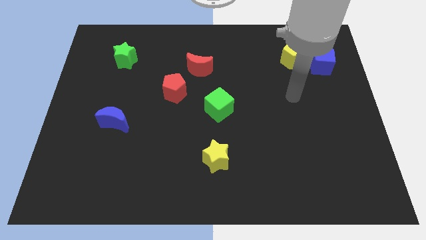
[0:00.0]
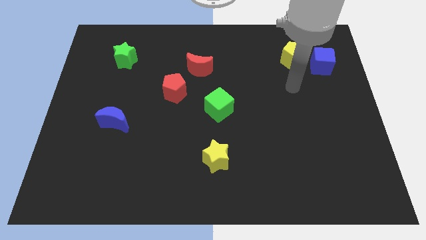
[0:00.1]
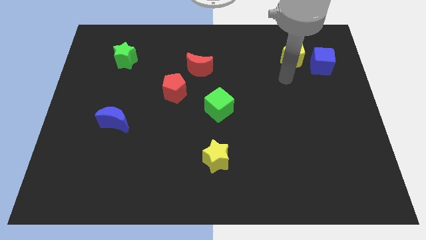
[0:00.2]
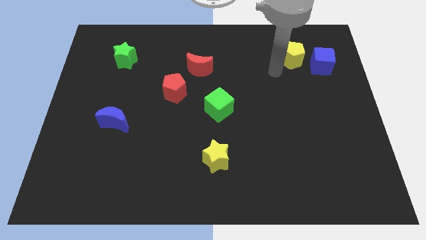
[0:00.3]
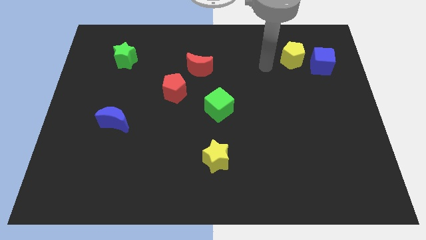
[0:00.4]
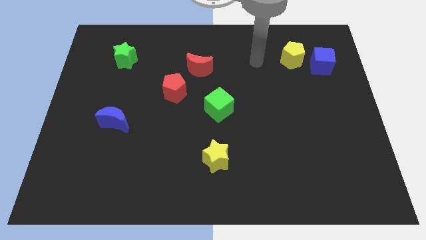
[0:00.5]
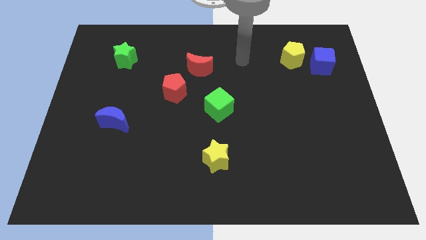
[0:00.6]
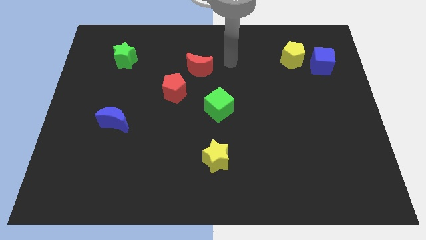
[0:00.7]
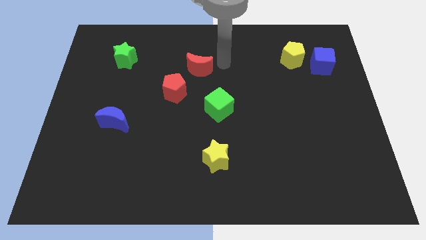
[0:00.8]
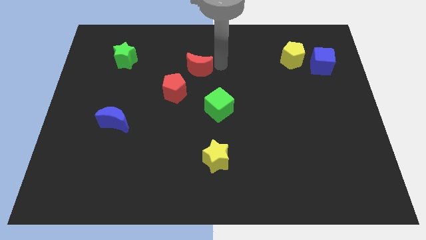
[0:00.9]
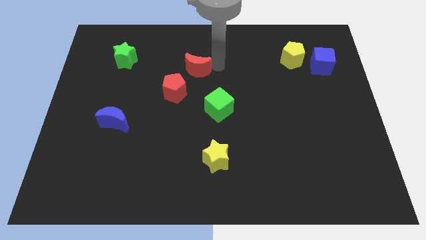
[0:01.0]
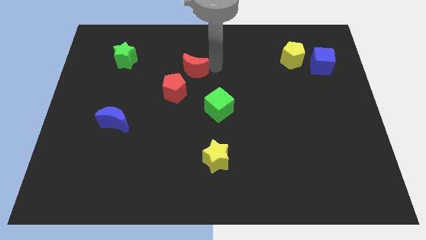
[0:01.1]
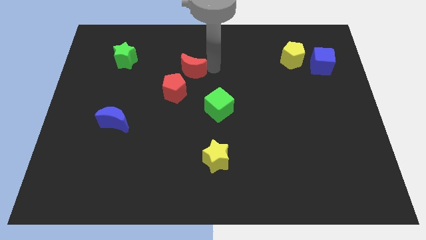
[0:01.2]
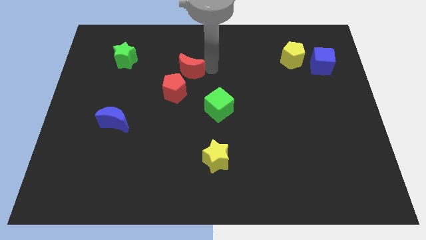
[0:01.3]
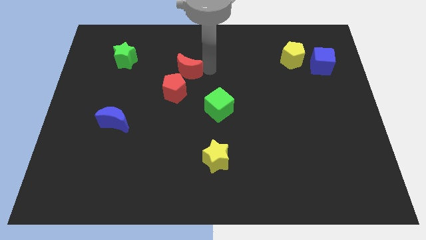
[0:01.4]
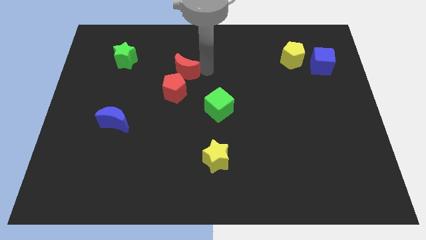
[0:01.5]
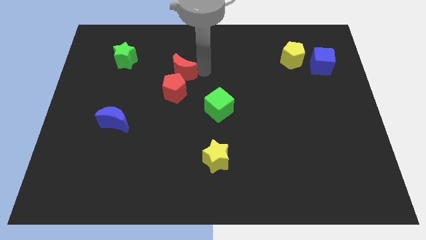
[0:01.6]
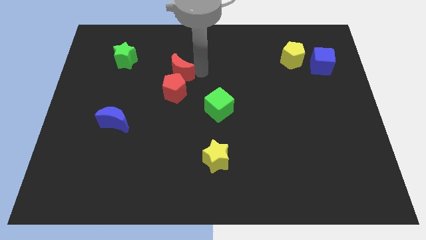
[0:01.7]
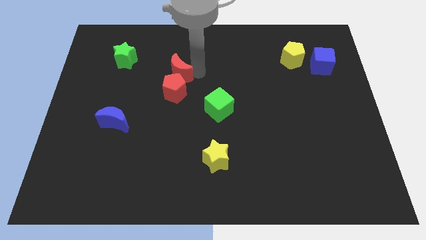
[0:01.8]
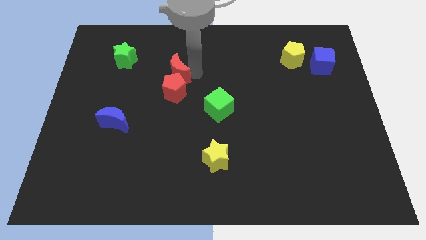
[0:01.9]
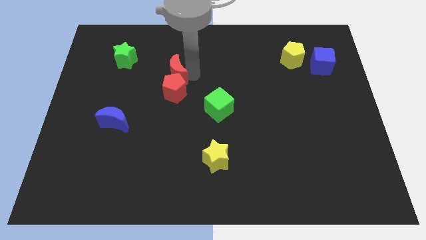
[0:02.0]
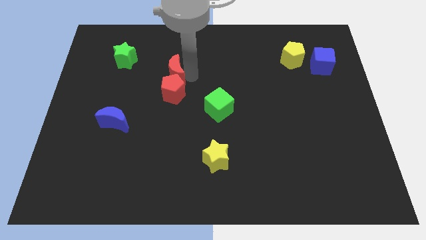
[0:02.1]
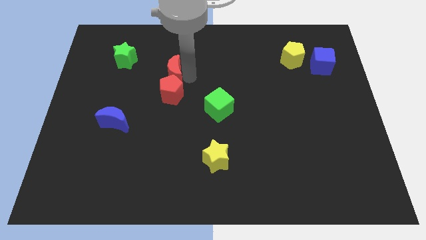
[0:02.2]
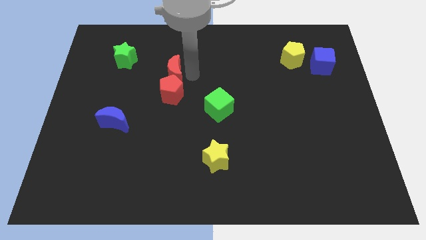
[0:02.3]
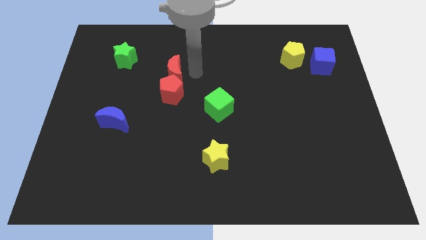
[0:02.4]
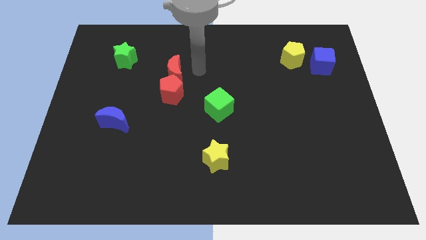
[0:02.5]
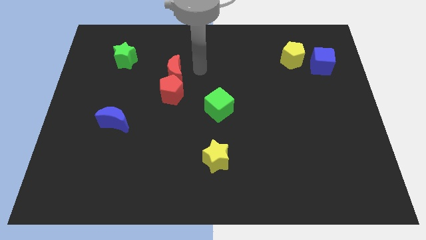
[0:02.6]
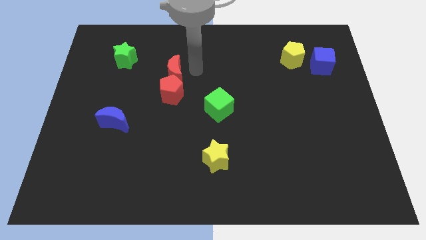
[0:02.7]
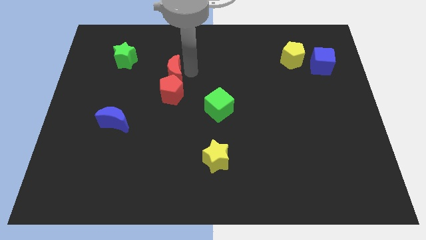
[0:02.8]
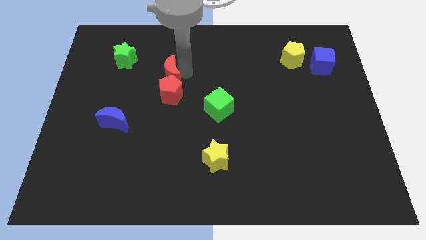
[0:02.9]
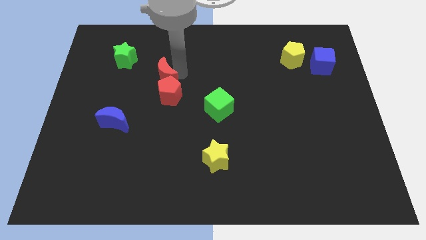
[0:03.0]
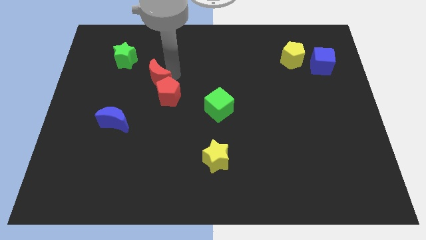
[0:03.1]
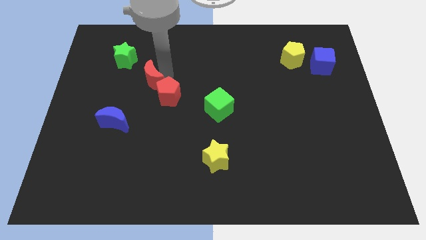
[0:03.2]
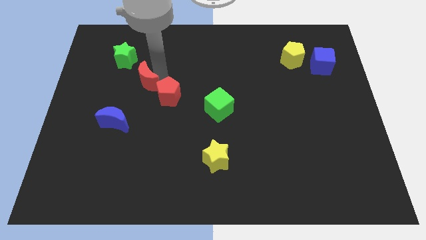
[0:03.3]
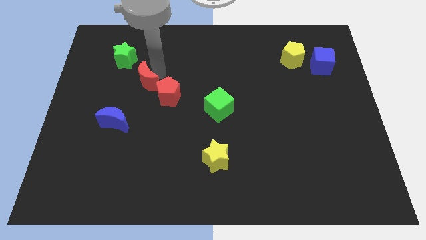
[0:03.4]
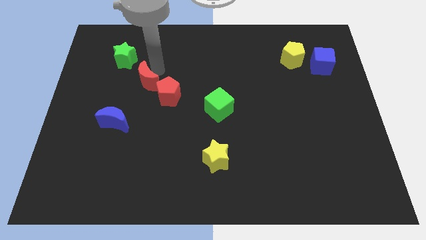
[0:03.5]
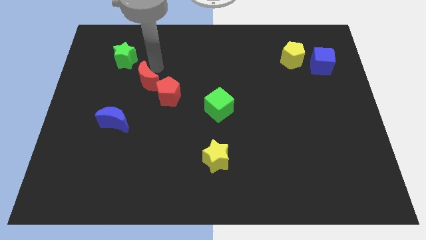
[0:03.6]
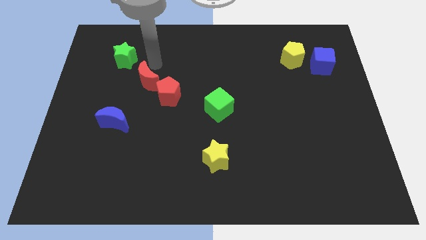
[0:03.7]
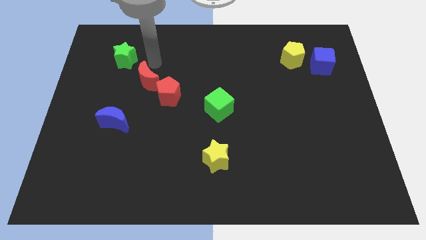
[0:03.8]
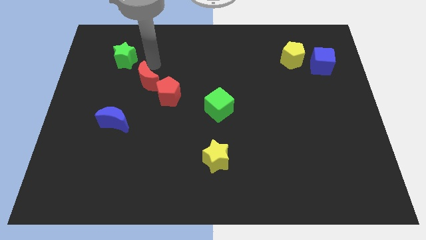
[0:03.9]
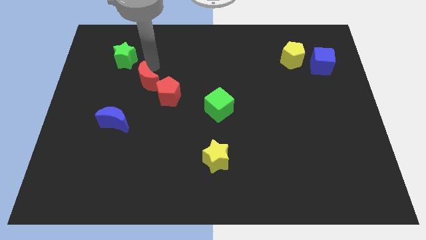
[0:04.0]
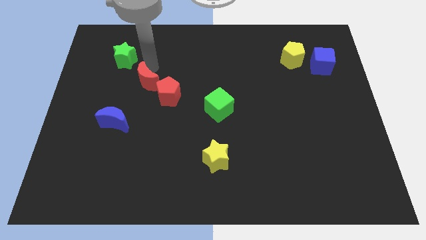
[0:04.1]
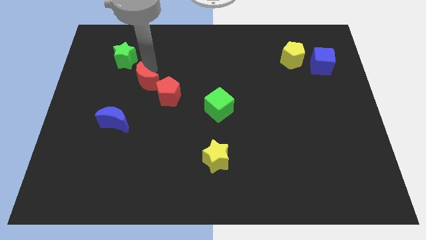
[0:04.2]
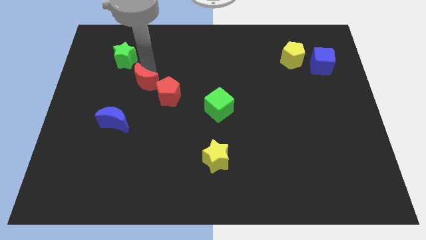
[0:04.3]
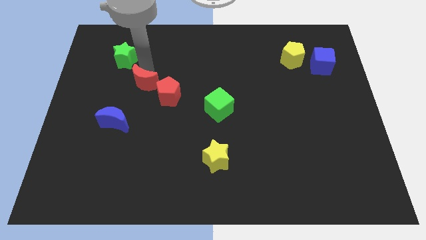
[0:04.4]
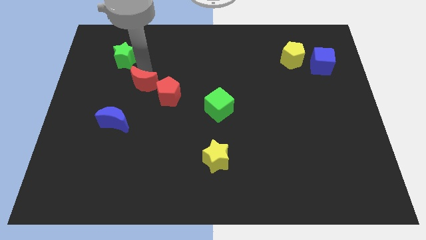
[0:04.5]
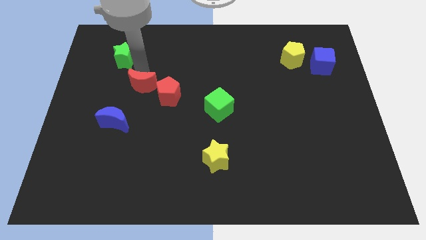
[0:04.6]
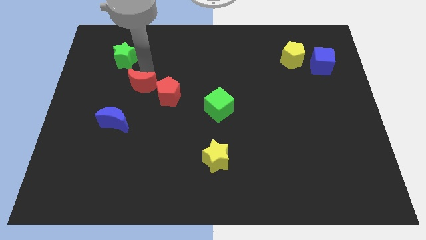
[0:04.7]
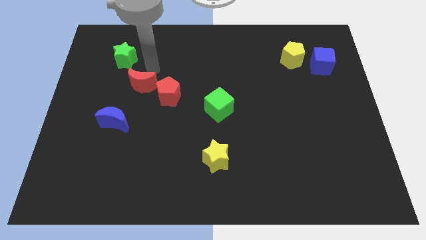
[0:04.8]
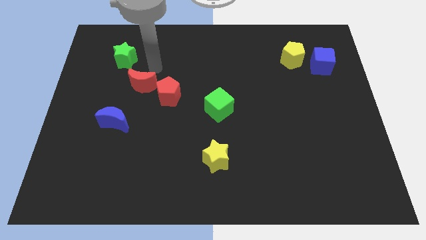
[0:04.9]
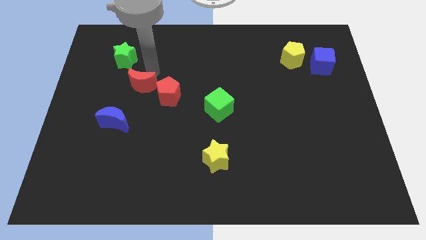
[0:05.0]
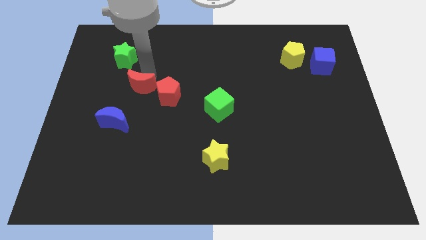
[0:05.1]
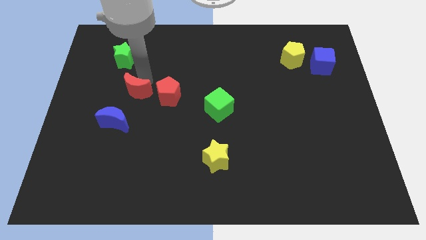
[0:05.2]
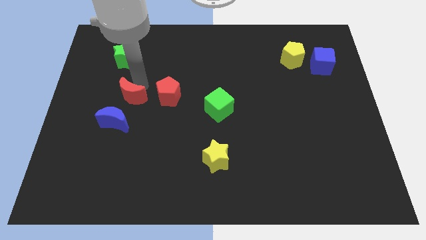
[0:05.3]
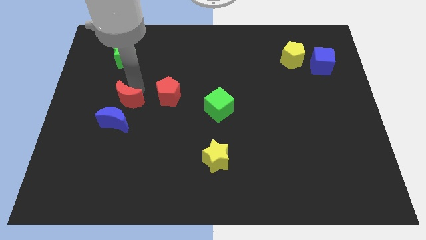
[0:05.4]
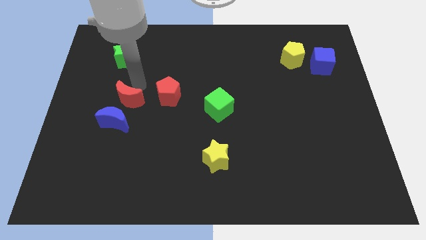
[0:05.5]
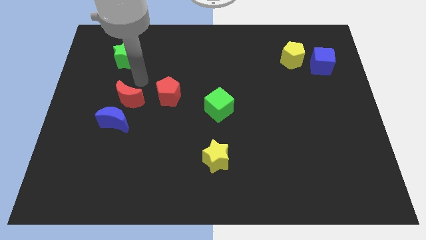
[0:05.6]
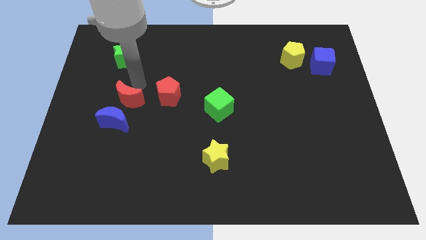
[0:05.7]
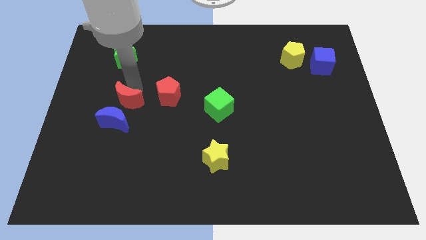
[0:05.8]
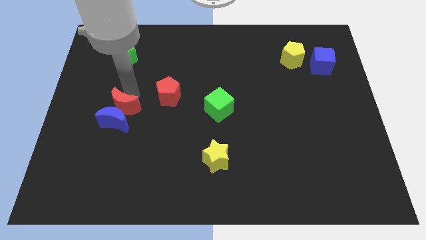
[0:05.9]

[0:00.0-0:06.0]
put the red moon close to the blue moon
